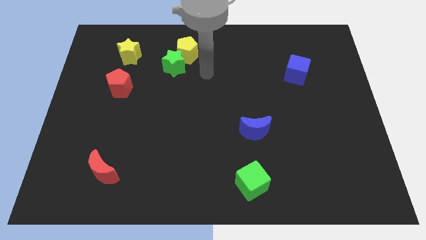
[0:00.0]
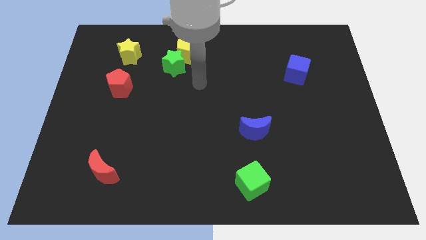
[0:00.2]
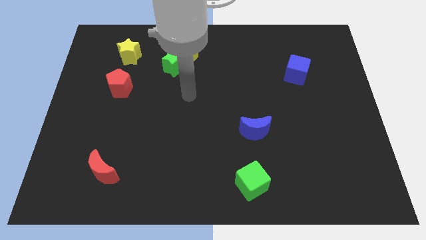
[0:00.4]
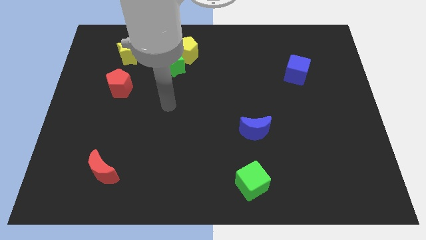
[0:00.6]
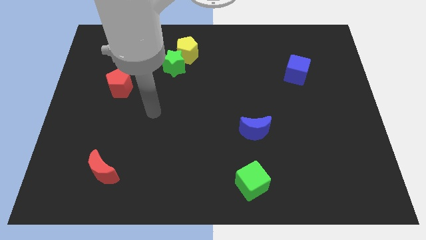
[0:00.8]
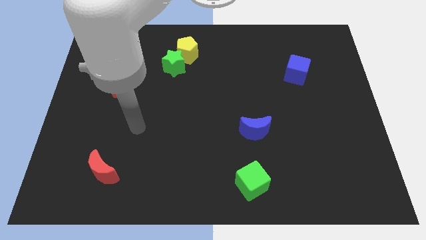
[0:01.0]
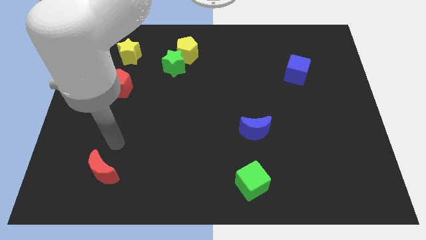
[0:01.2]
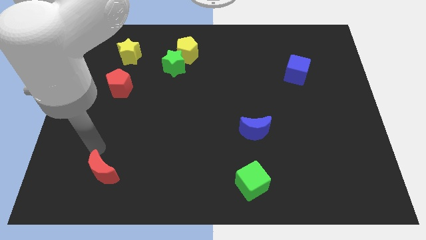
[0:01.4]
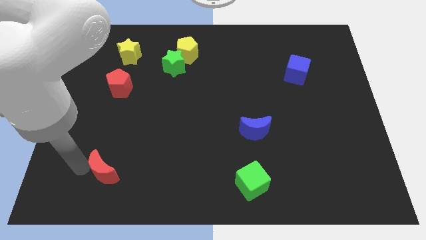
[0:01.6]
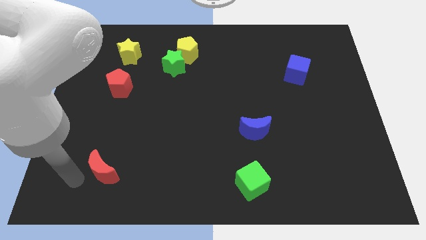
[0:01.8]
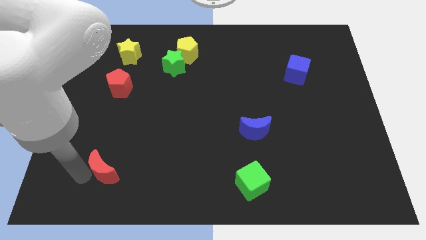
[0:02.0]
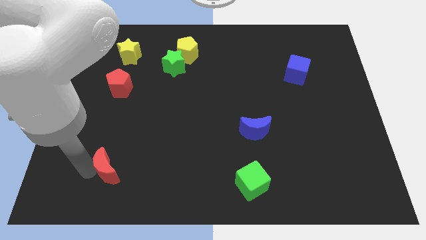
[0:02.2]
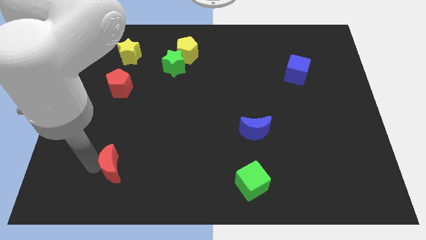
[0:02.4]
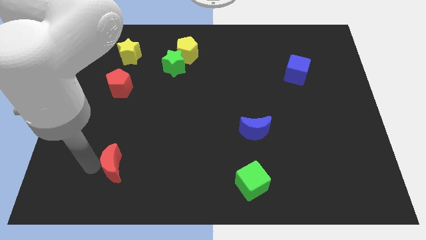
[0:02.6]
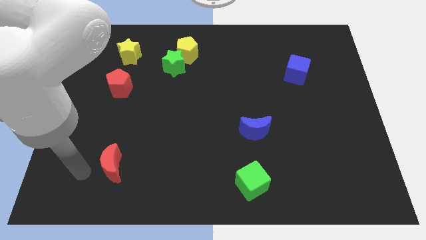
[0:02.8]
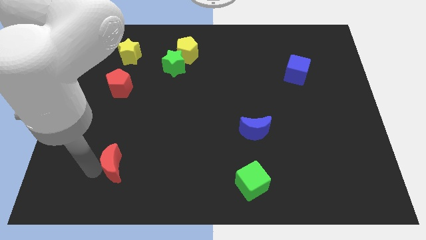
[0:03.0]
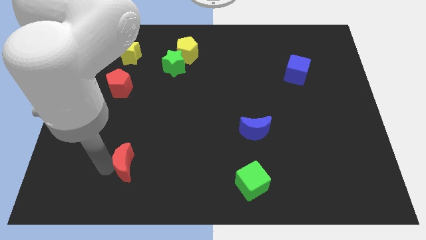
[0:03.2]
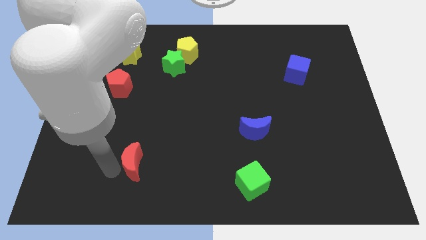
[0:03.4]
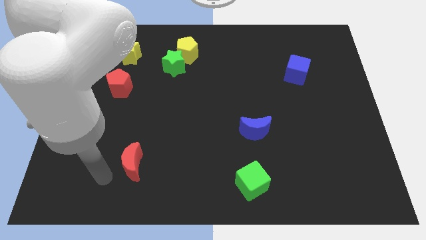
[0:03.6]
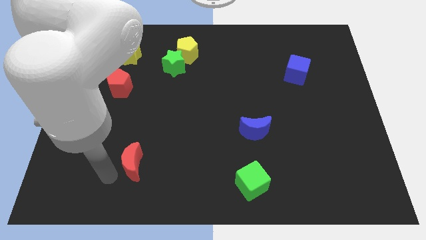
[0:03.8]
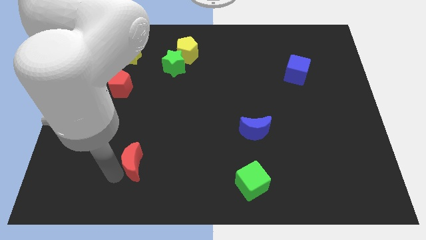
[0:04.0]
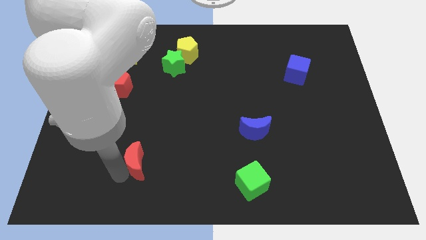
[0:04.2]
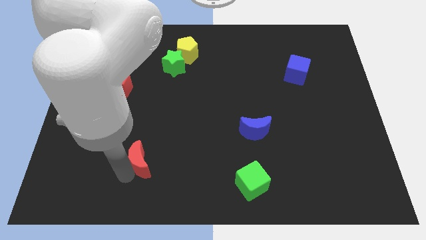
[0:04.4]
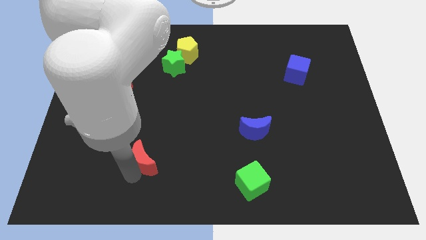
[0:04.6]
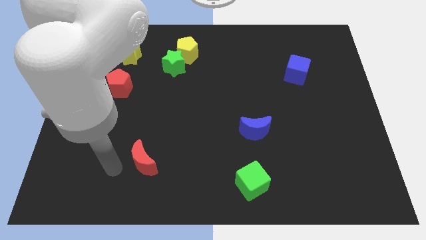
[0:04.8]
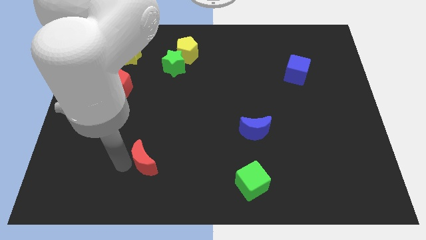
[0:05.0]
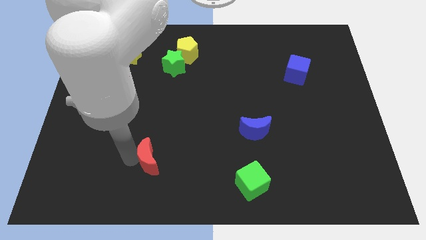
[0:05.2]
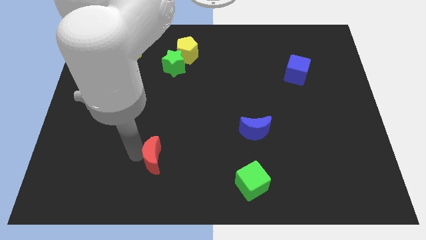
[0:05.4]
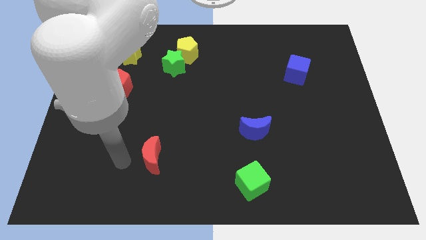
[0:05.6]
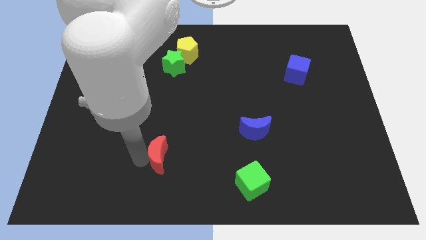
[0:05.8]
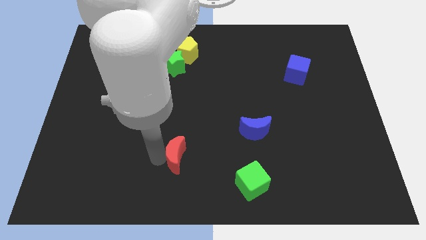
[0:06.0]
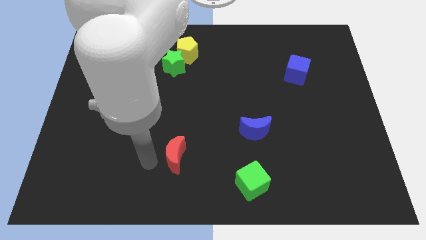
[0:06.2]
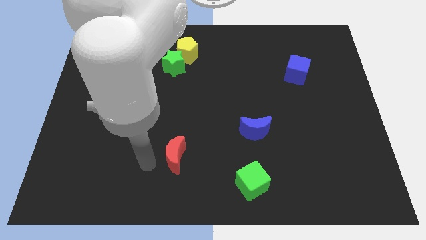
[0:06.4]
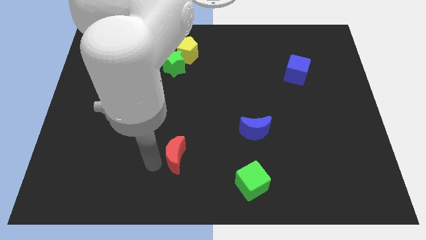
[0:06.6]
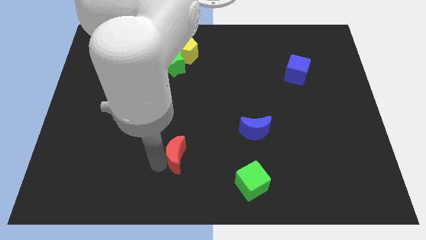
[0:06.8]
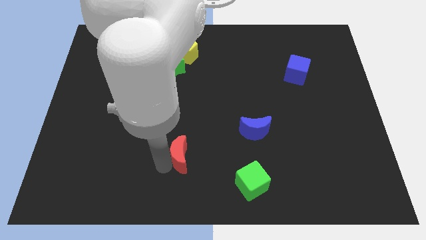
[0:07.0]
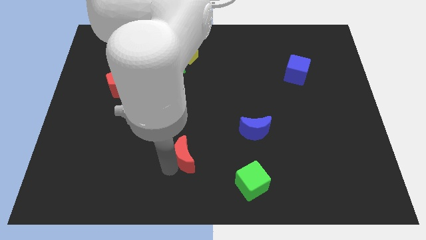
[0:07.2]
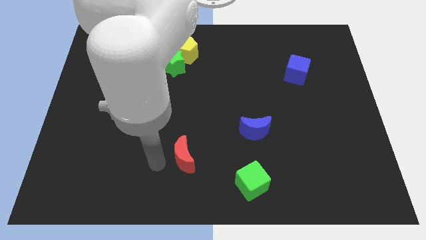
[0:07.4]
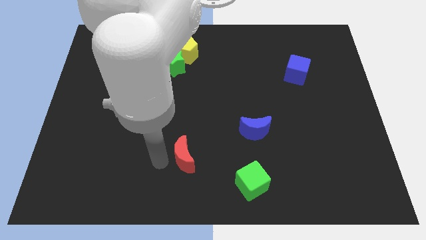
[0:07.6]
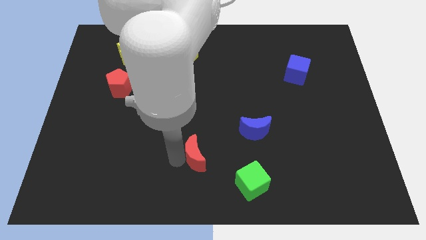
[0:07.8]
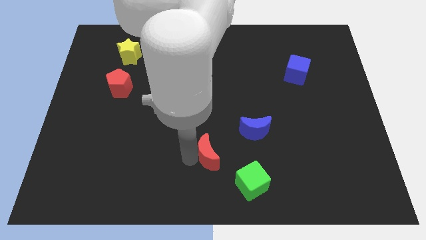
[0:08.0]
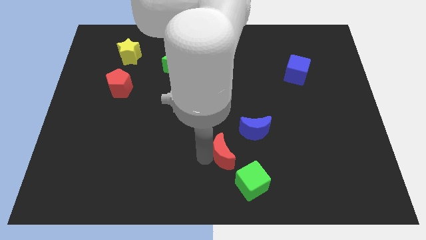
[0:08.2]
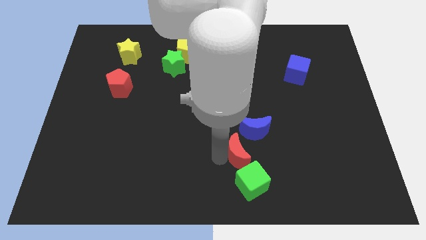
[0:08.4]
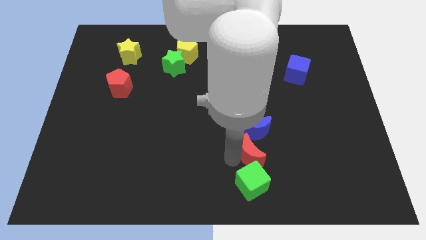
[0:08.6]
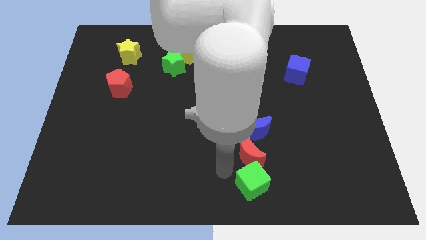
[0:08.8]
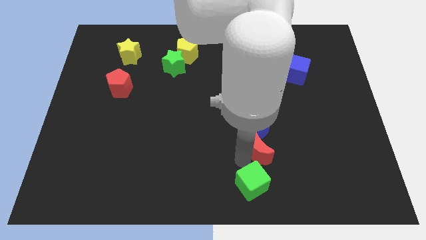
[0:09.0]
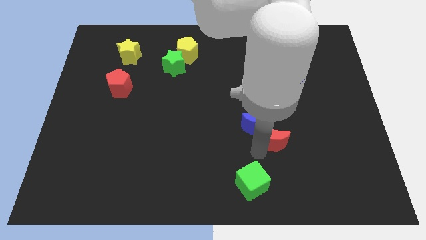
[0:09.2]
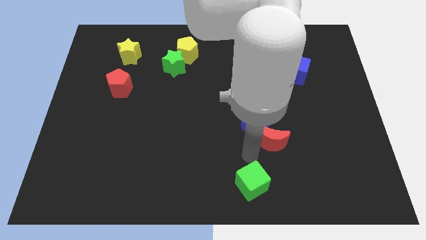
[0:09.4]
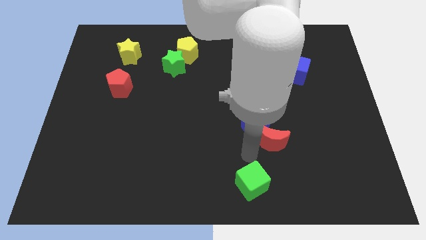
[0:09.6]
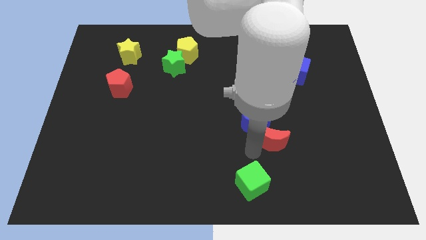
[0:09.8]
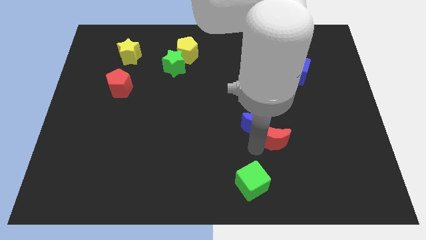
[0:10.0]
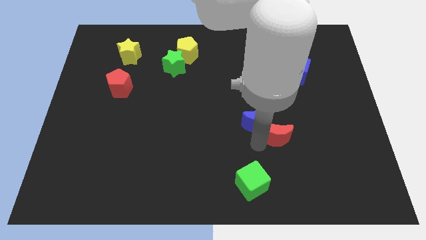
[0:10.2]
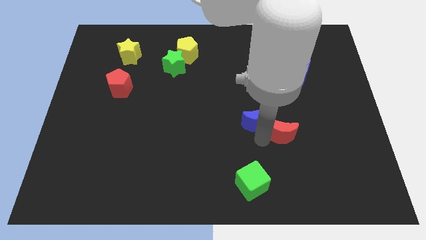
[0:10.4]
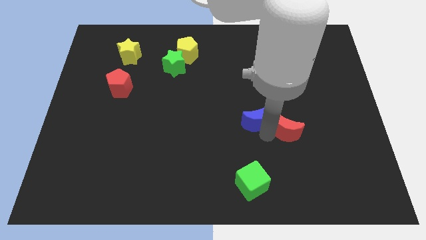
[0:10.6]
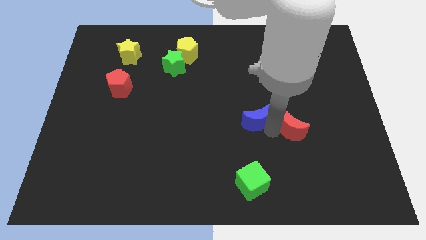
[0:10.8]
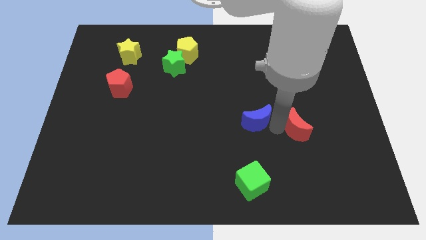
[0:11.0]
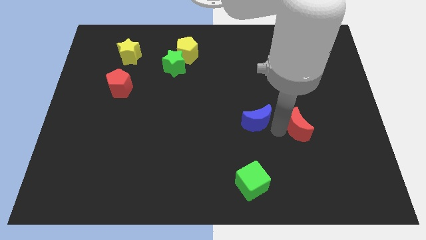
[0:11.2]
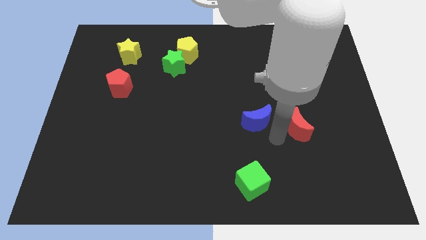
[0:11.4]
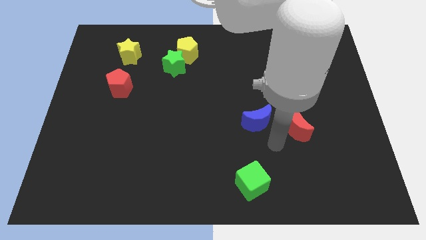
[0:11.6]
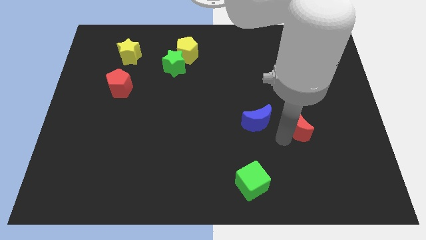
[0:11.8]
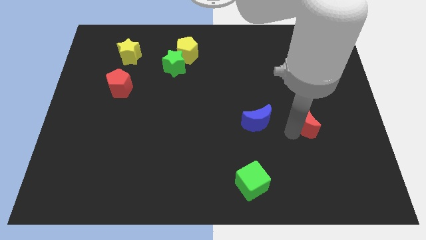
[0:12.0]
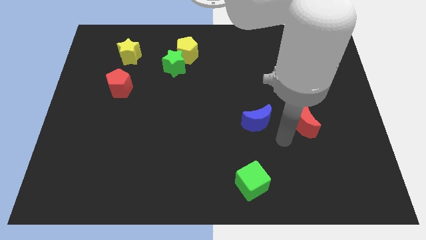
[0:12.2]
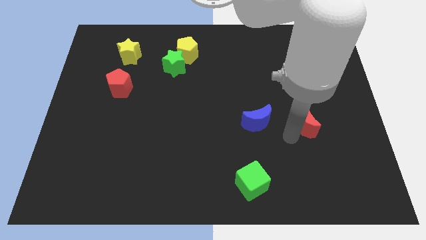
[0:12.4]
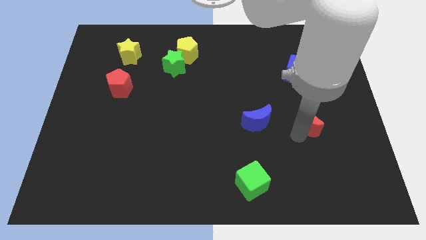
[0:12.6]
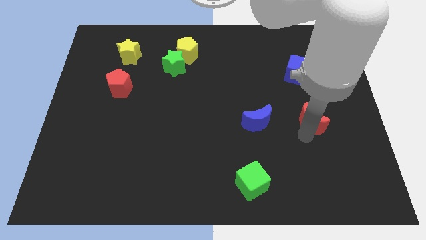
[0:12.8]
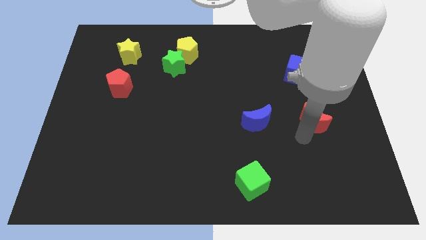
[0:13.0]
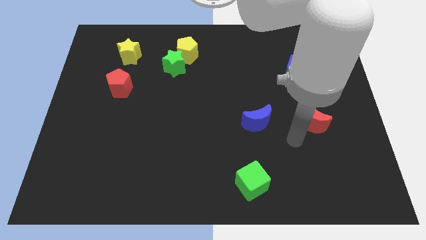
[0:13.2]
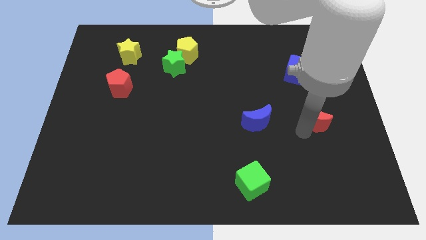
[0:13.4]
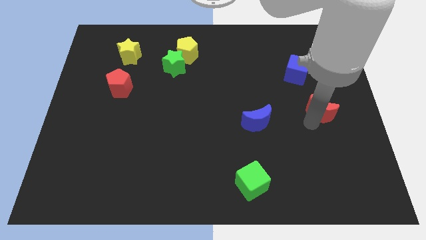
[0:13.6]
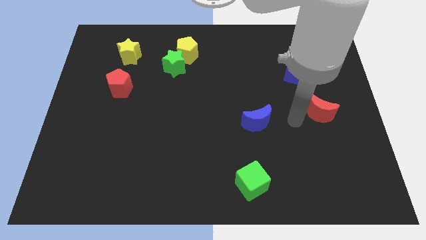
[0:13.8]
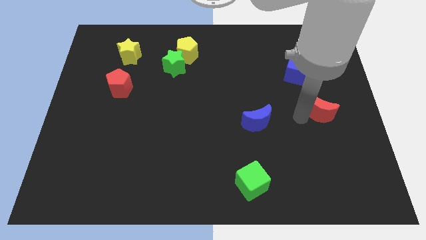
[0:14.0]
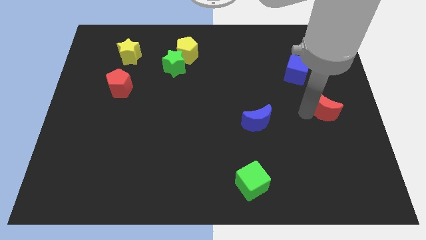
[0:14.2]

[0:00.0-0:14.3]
move the red moon to the right side
